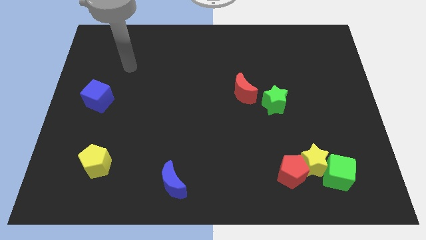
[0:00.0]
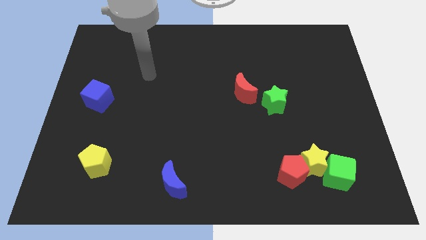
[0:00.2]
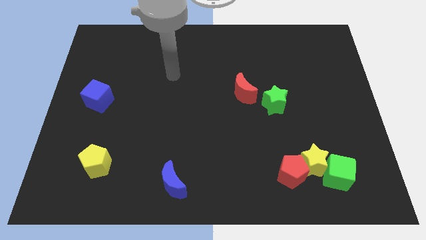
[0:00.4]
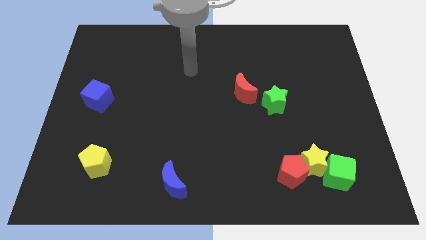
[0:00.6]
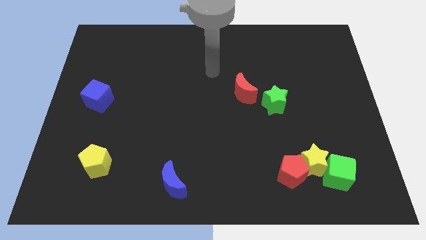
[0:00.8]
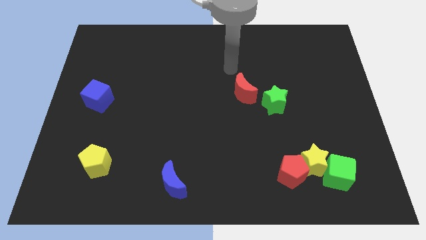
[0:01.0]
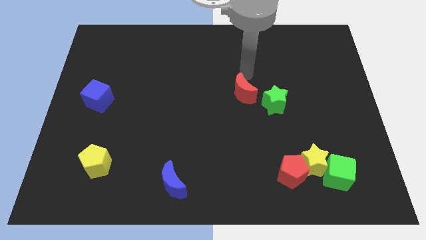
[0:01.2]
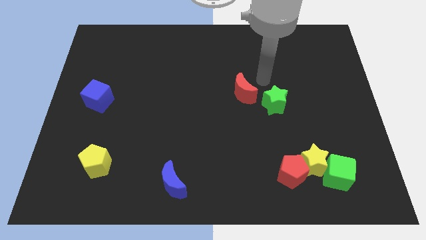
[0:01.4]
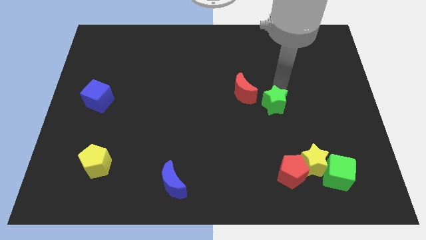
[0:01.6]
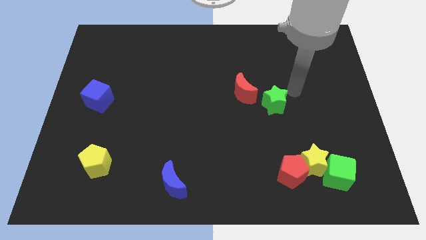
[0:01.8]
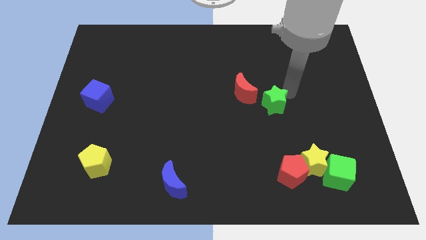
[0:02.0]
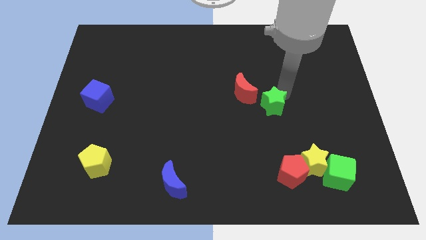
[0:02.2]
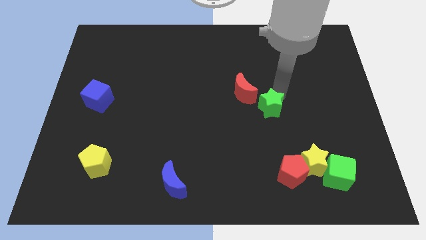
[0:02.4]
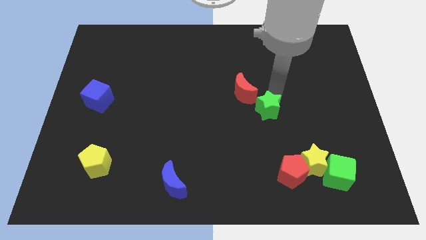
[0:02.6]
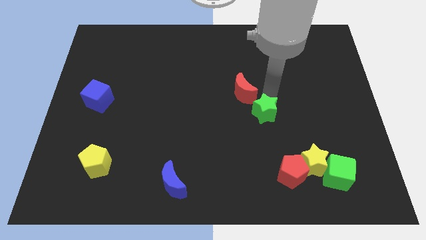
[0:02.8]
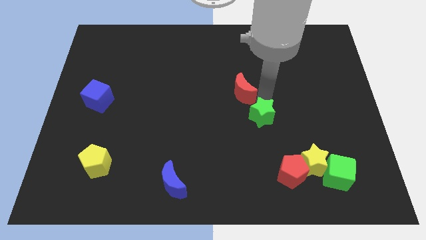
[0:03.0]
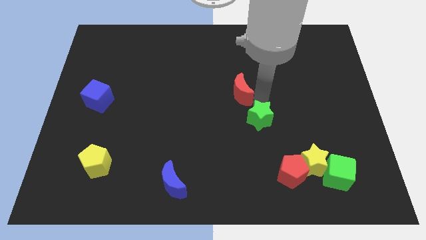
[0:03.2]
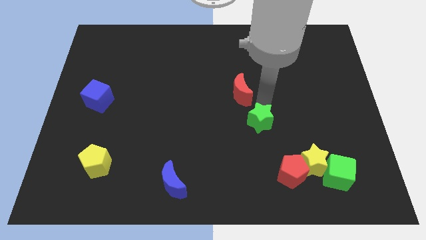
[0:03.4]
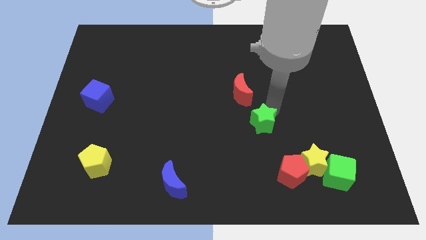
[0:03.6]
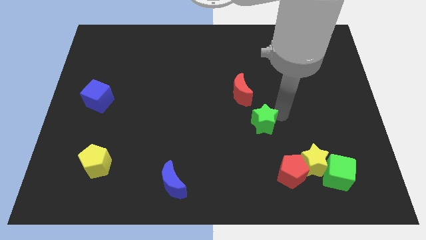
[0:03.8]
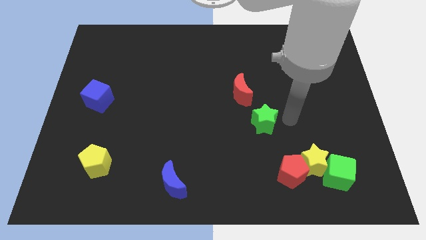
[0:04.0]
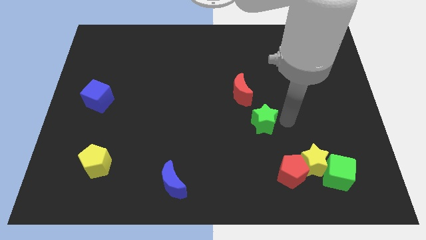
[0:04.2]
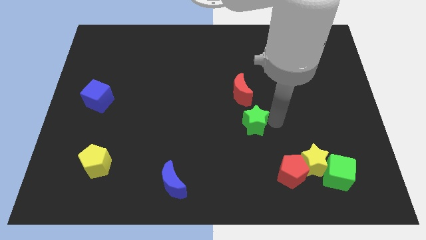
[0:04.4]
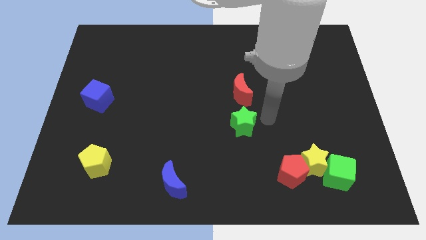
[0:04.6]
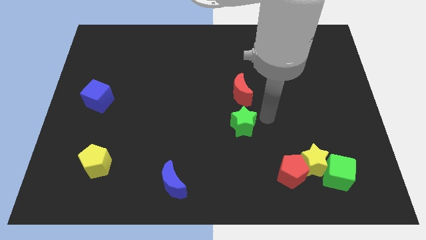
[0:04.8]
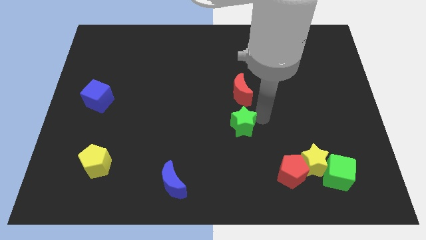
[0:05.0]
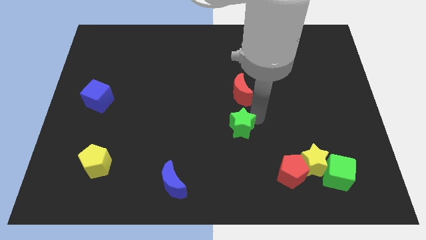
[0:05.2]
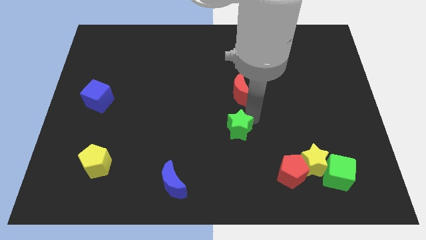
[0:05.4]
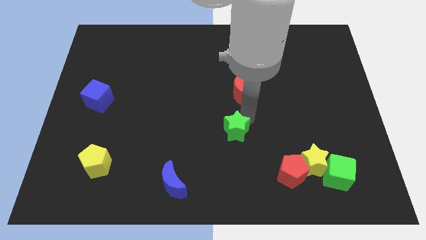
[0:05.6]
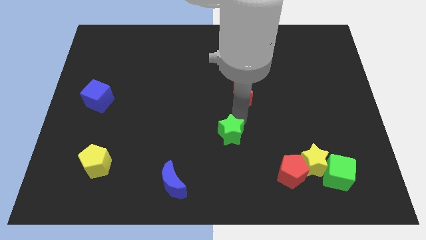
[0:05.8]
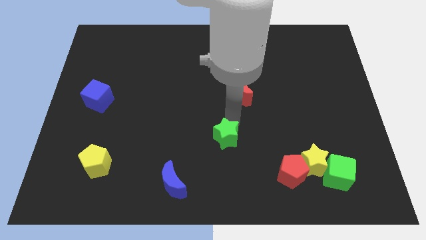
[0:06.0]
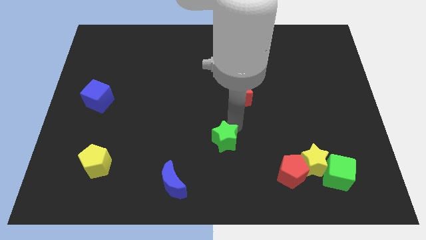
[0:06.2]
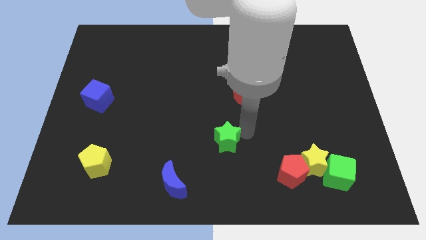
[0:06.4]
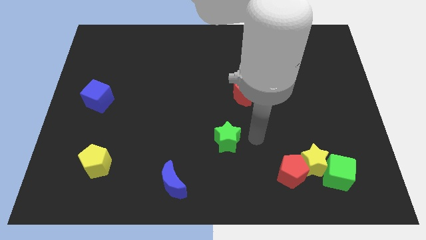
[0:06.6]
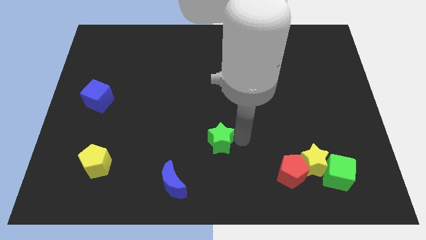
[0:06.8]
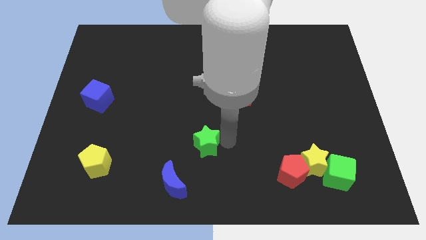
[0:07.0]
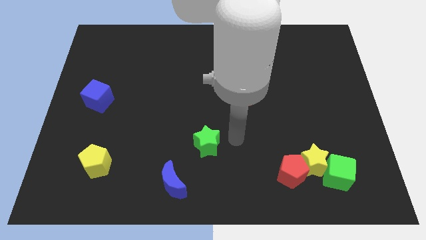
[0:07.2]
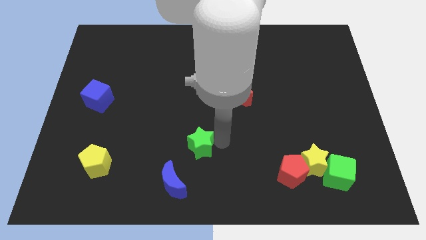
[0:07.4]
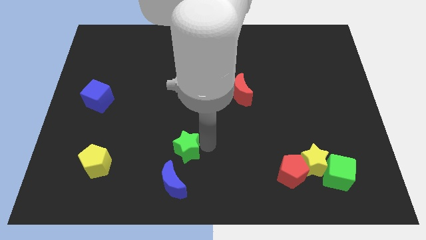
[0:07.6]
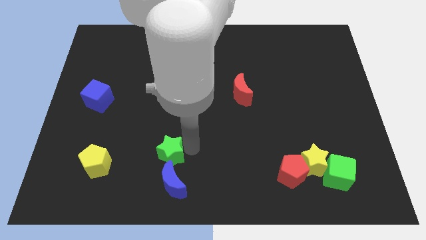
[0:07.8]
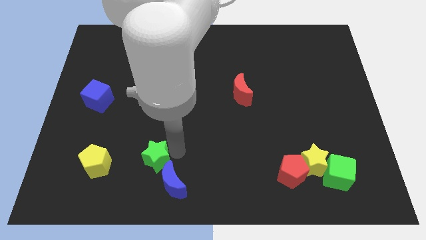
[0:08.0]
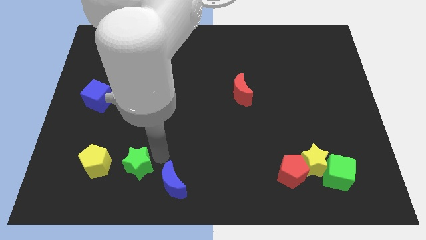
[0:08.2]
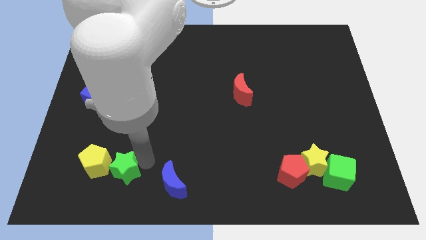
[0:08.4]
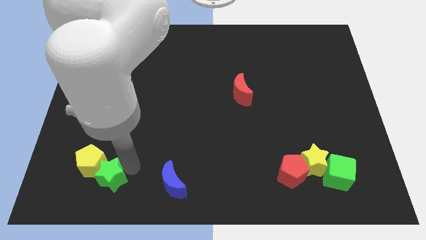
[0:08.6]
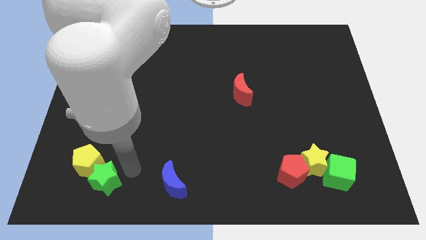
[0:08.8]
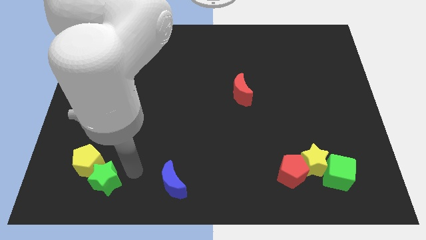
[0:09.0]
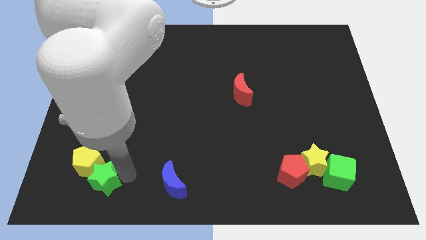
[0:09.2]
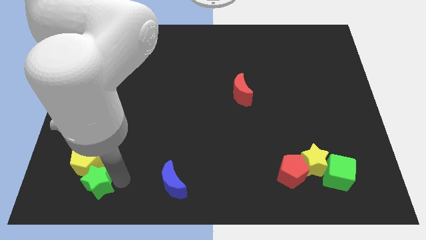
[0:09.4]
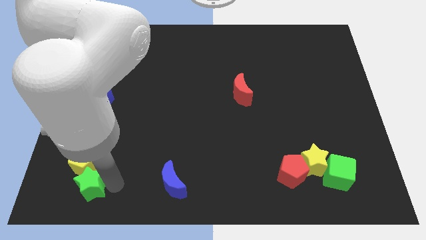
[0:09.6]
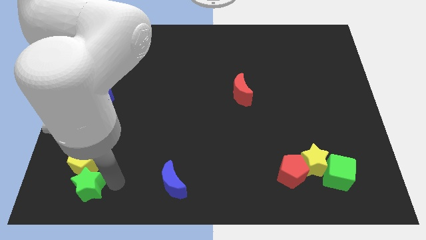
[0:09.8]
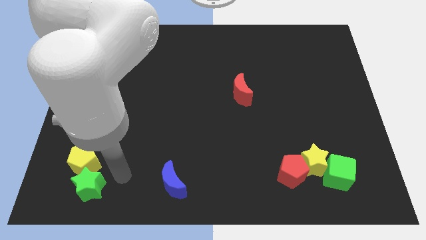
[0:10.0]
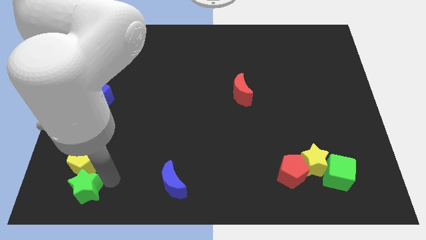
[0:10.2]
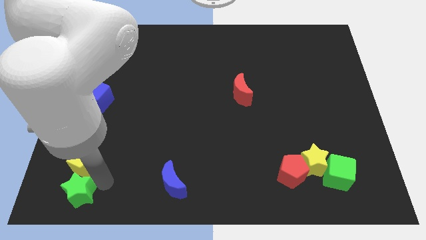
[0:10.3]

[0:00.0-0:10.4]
slide the green star to the lower left corner

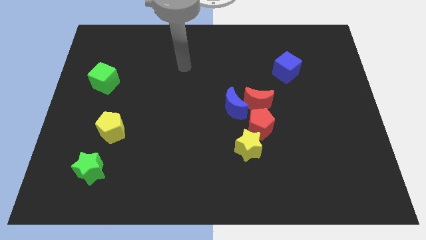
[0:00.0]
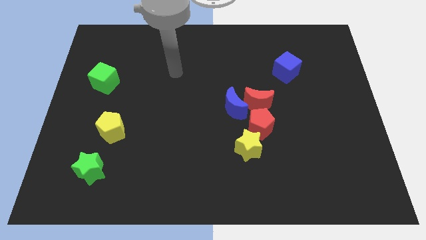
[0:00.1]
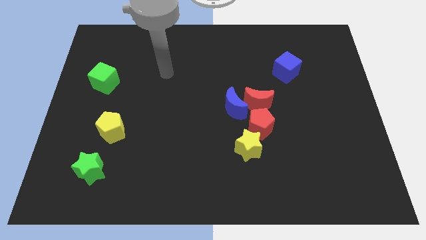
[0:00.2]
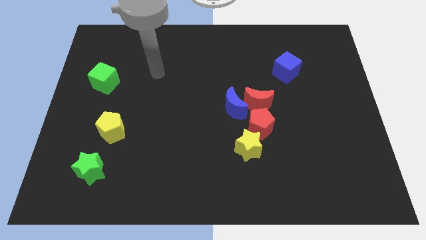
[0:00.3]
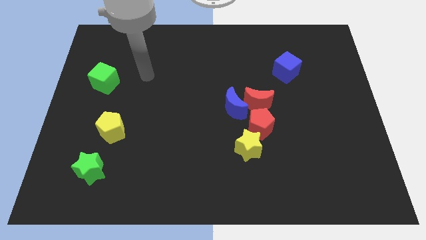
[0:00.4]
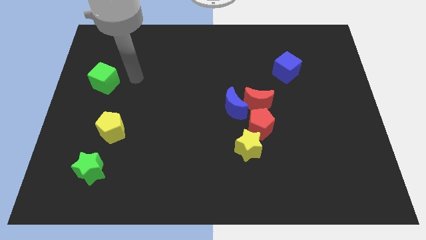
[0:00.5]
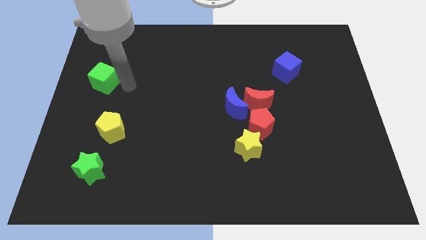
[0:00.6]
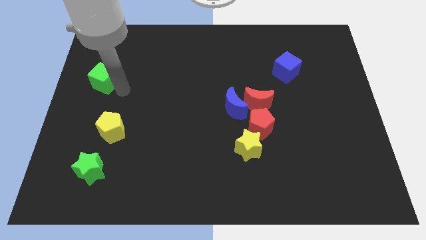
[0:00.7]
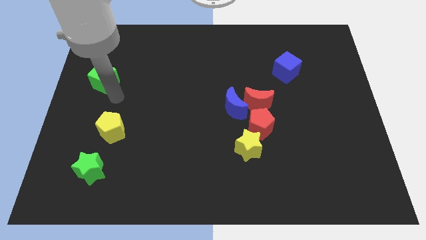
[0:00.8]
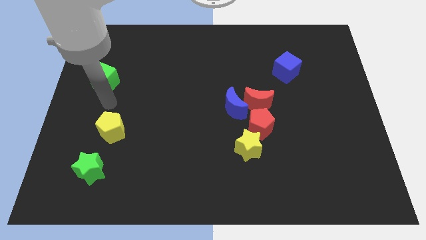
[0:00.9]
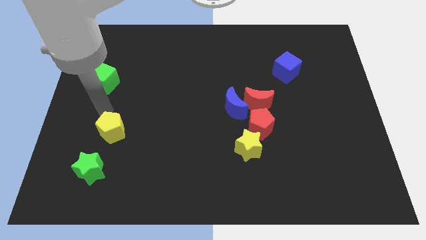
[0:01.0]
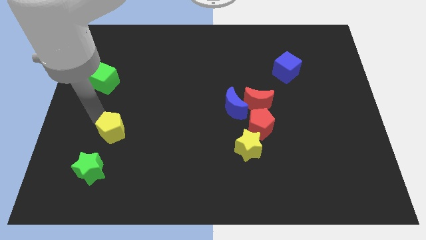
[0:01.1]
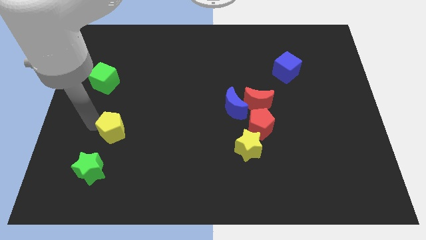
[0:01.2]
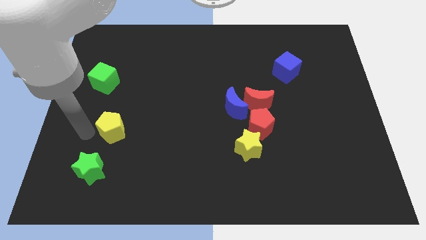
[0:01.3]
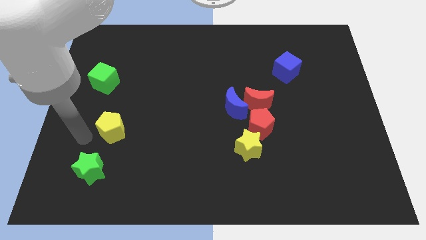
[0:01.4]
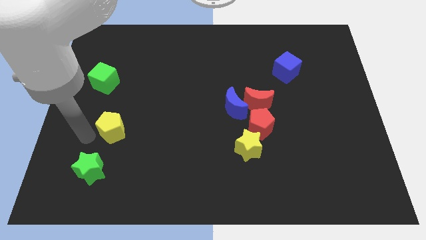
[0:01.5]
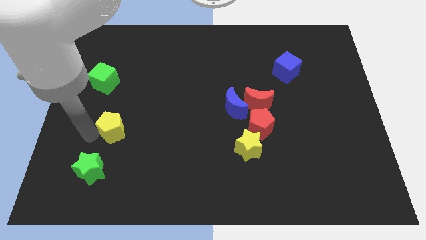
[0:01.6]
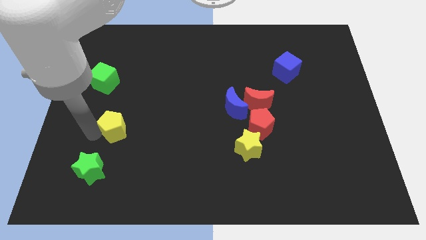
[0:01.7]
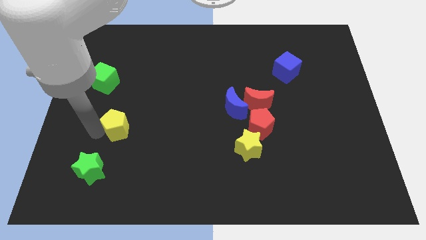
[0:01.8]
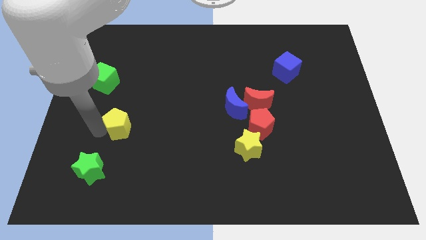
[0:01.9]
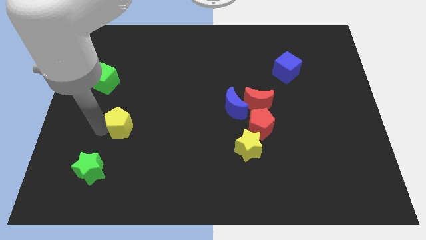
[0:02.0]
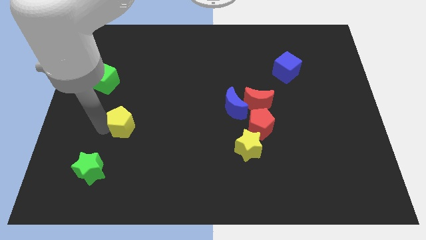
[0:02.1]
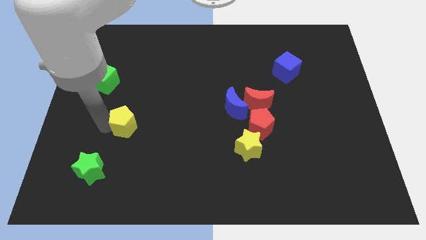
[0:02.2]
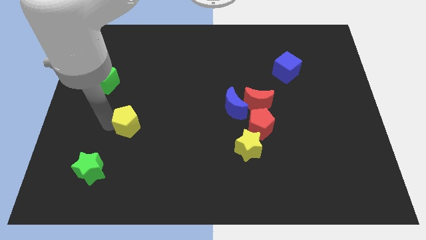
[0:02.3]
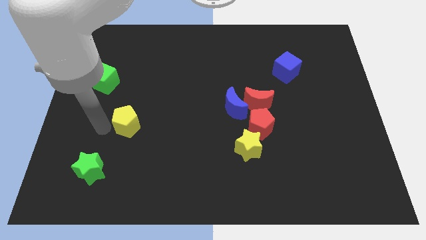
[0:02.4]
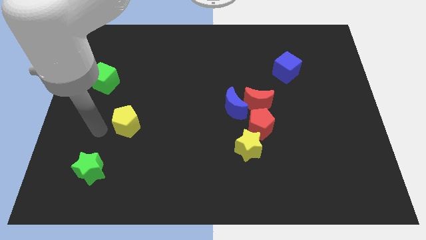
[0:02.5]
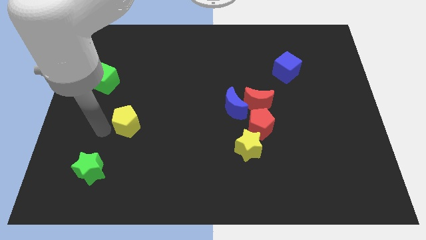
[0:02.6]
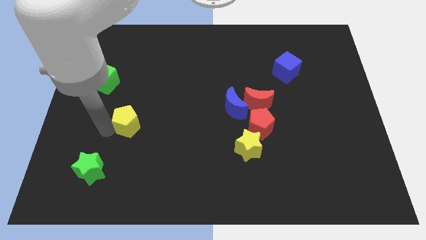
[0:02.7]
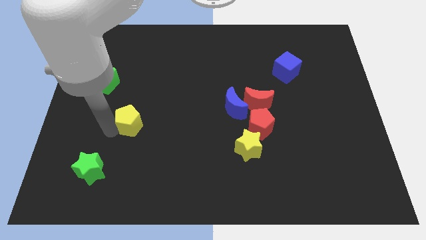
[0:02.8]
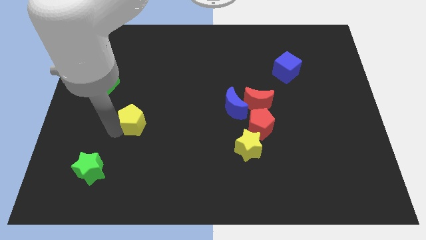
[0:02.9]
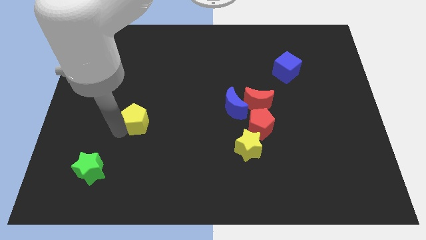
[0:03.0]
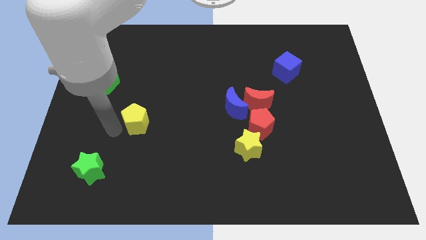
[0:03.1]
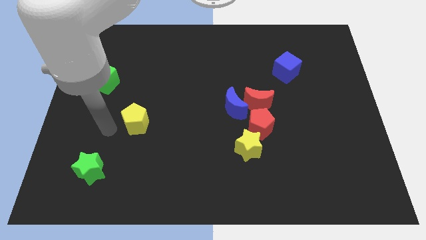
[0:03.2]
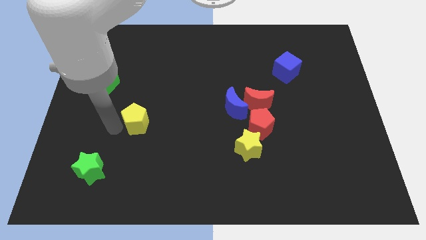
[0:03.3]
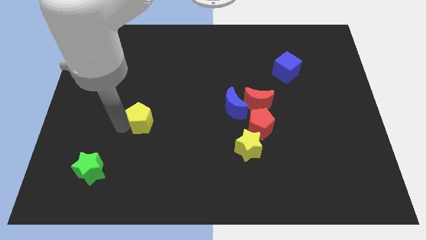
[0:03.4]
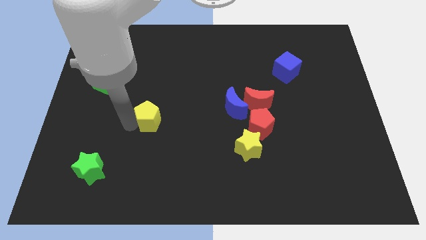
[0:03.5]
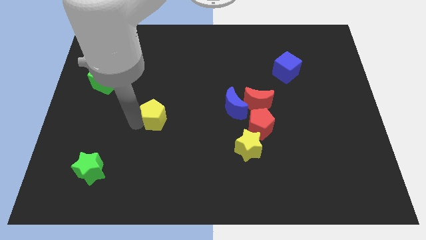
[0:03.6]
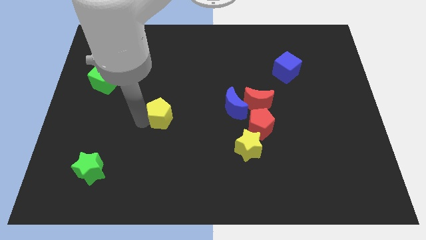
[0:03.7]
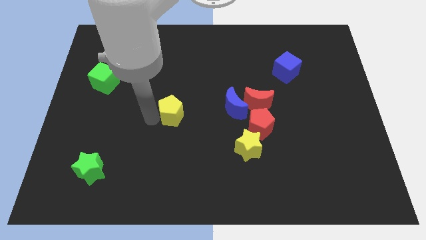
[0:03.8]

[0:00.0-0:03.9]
slide the yellow pentagon to the center
